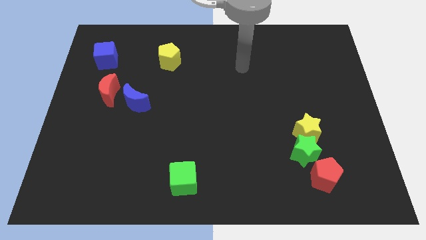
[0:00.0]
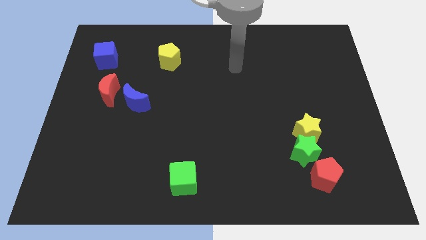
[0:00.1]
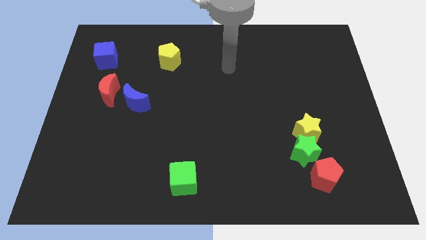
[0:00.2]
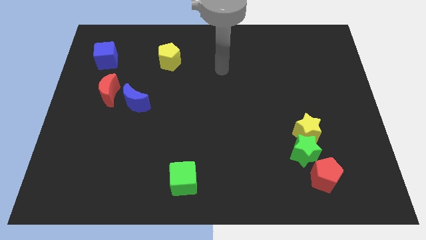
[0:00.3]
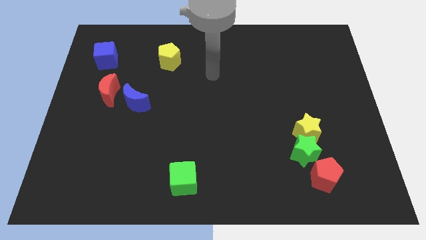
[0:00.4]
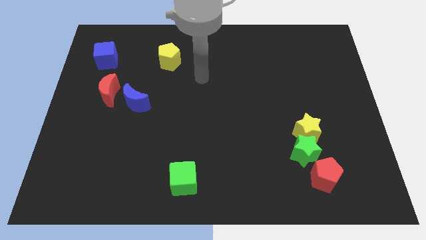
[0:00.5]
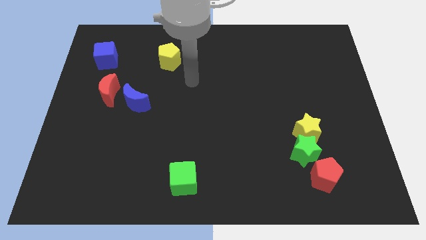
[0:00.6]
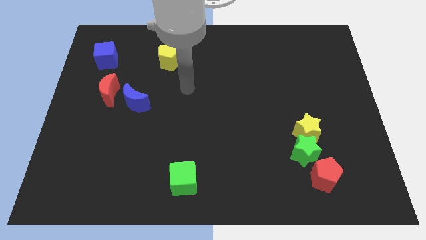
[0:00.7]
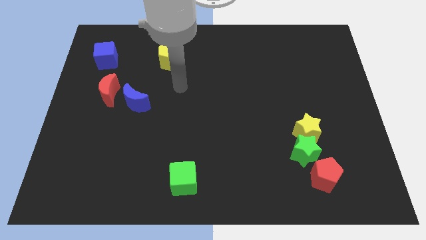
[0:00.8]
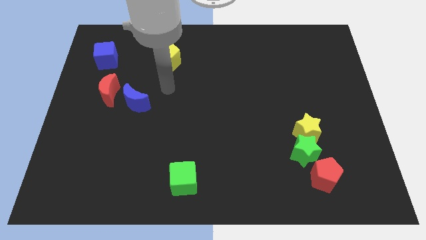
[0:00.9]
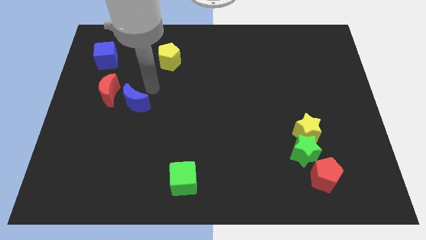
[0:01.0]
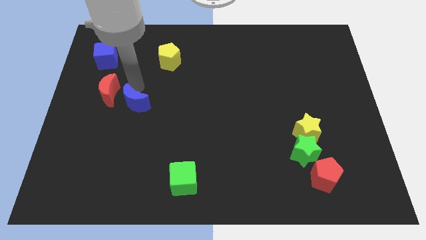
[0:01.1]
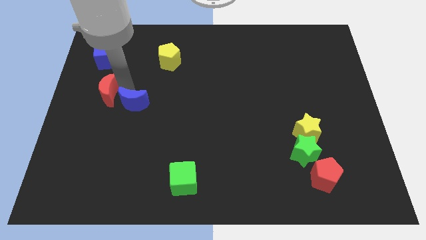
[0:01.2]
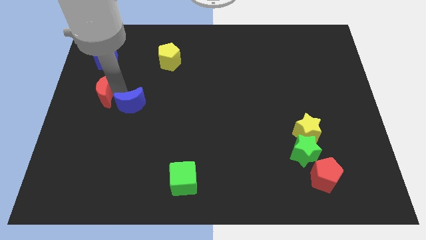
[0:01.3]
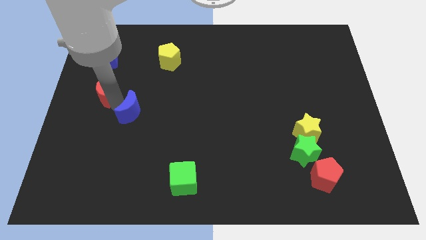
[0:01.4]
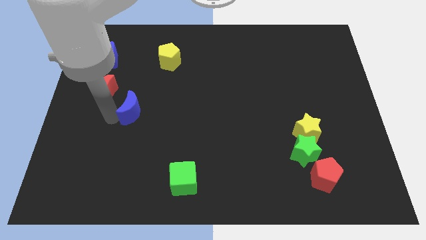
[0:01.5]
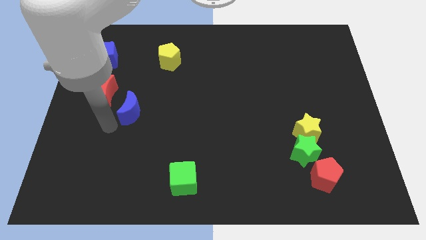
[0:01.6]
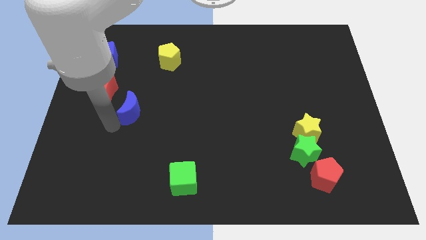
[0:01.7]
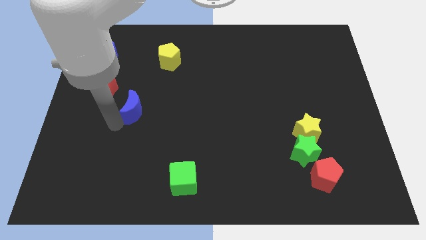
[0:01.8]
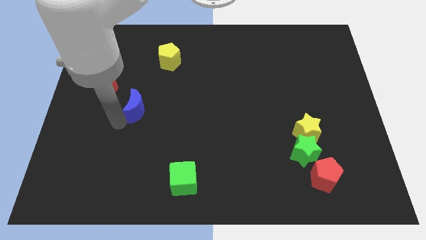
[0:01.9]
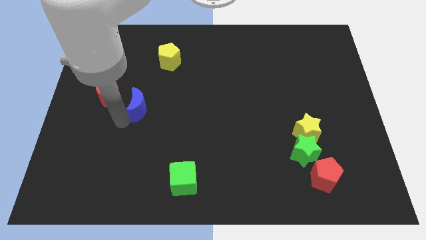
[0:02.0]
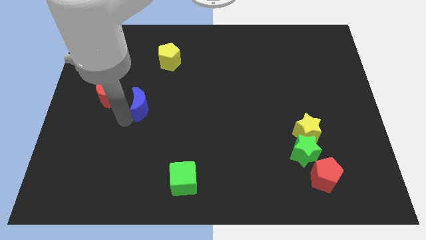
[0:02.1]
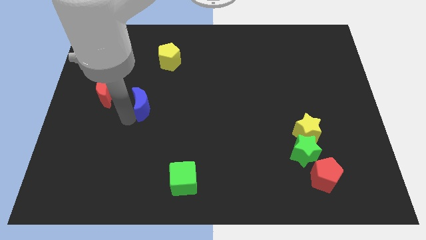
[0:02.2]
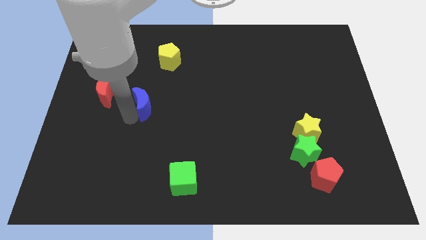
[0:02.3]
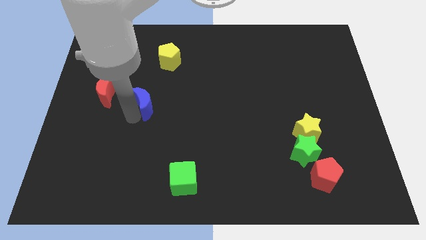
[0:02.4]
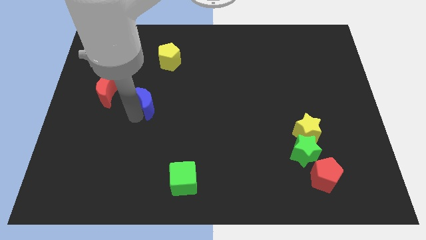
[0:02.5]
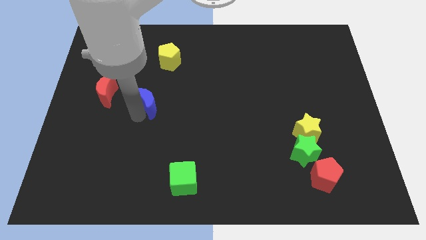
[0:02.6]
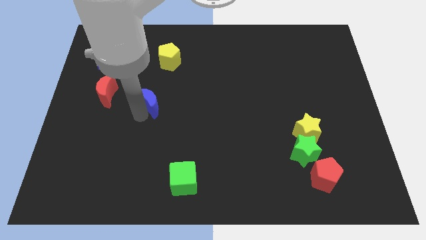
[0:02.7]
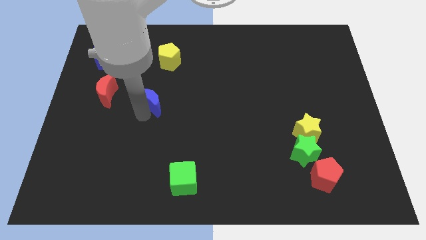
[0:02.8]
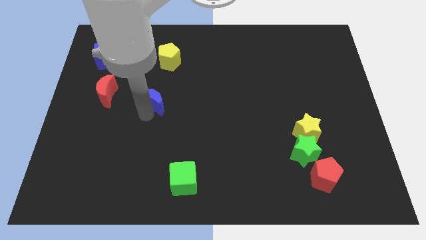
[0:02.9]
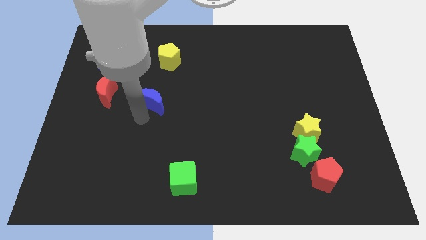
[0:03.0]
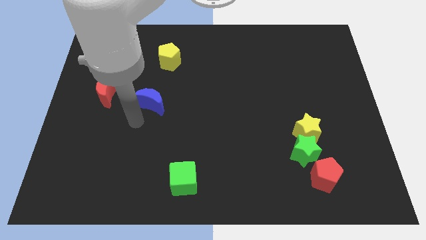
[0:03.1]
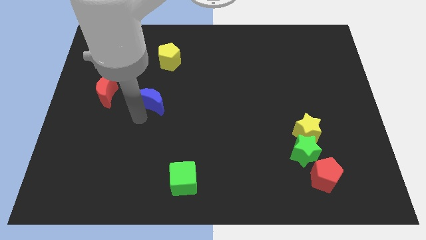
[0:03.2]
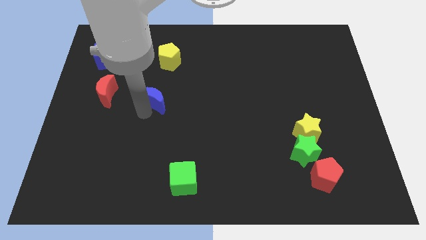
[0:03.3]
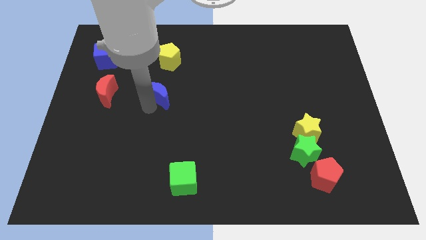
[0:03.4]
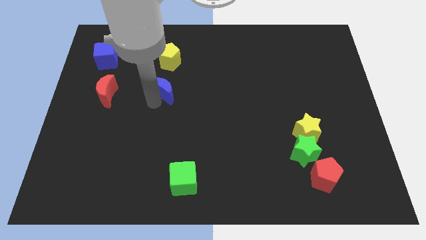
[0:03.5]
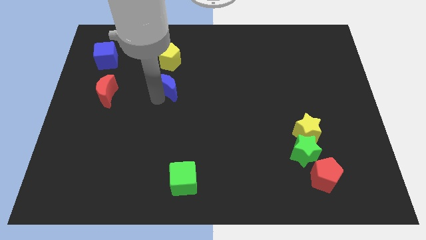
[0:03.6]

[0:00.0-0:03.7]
slide the blue moon upwards and to the right diagonally a little bit

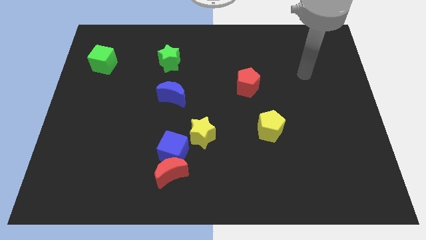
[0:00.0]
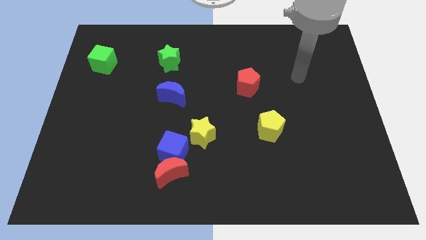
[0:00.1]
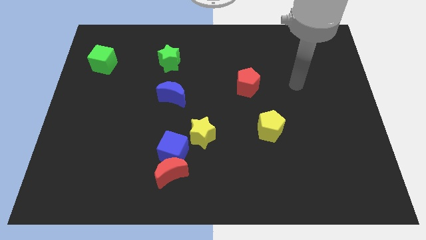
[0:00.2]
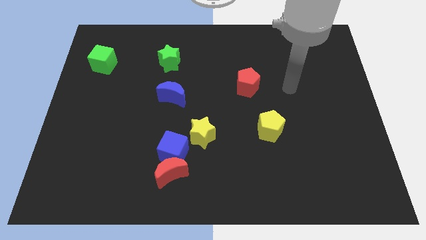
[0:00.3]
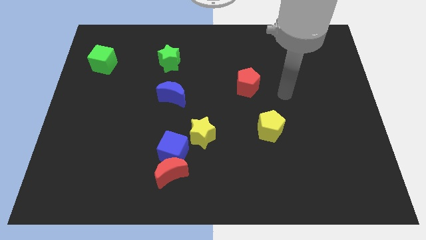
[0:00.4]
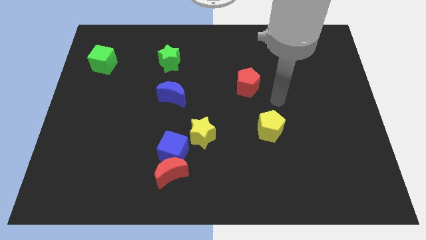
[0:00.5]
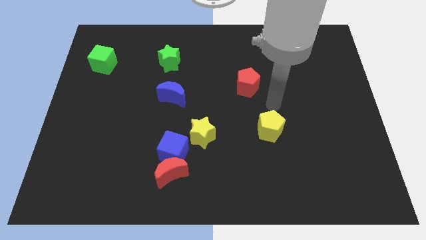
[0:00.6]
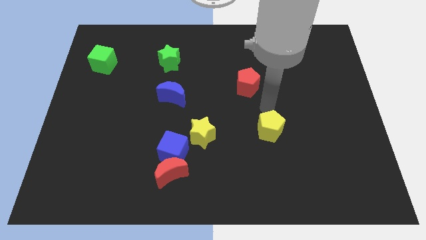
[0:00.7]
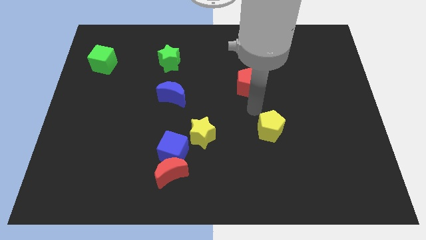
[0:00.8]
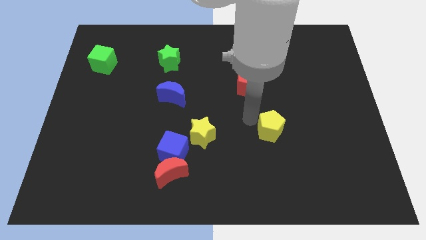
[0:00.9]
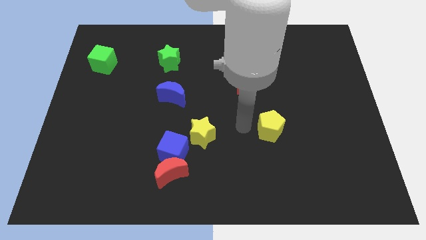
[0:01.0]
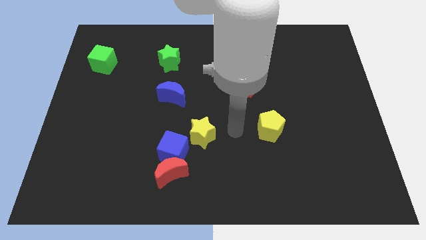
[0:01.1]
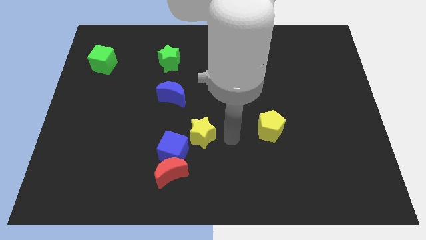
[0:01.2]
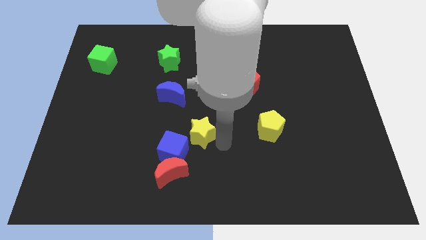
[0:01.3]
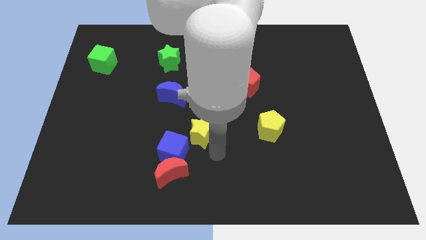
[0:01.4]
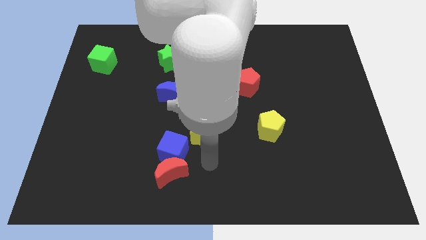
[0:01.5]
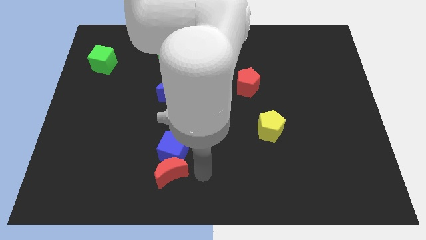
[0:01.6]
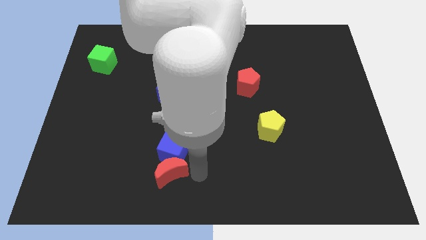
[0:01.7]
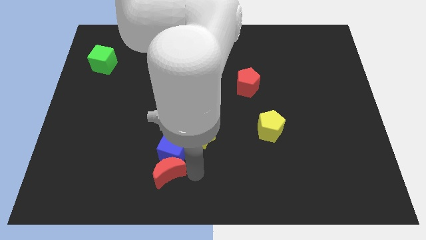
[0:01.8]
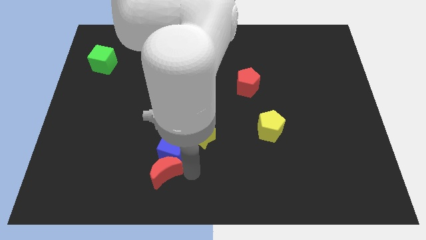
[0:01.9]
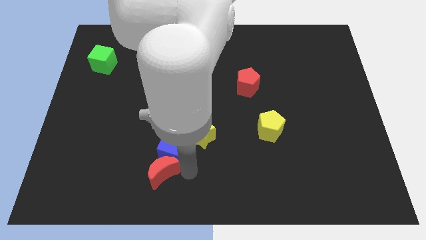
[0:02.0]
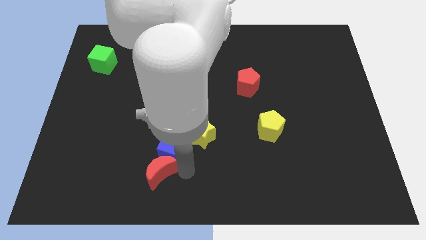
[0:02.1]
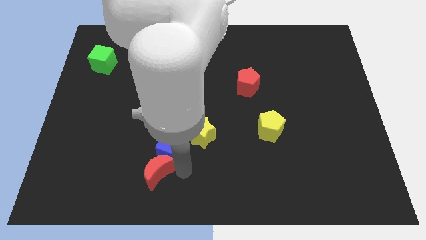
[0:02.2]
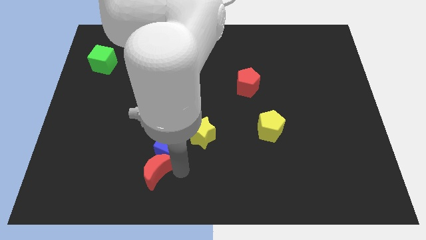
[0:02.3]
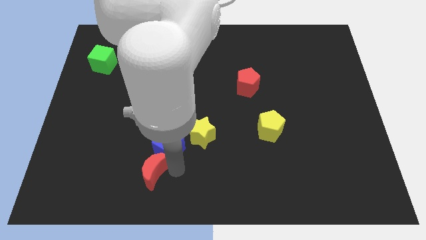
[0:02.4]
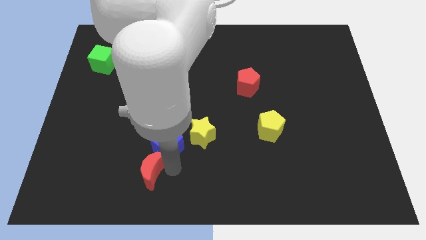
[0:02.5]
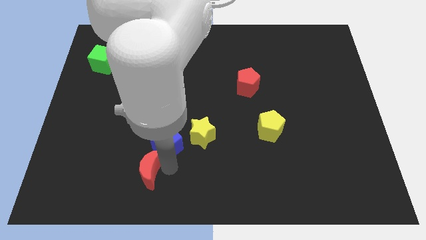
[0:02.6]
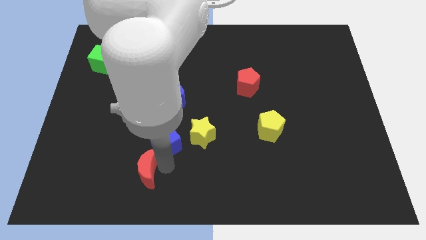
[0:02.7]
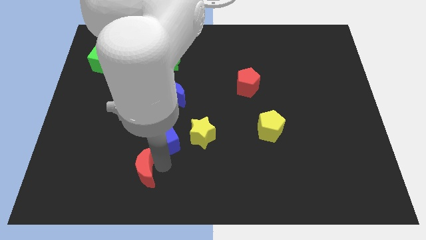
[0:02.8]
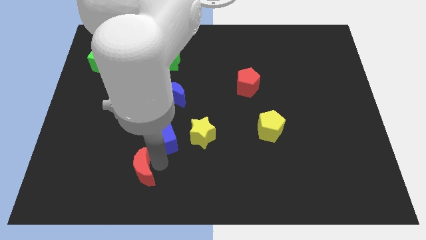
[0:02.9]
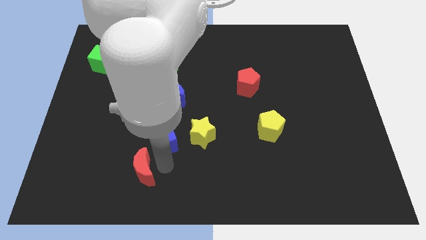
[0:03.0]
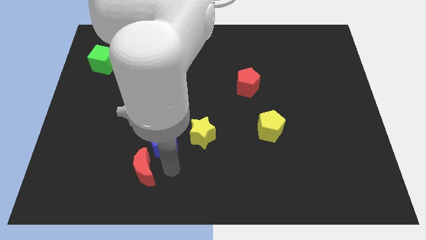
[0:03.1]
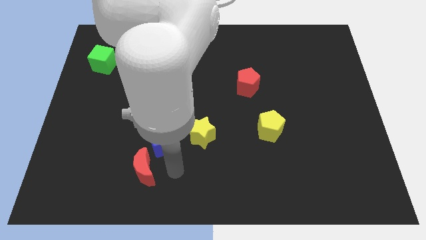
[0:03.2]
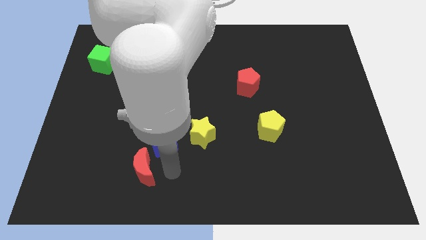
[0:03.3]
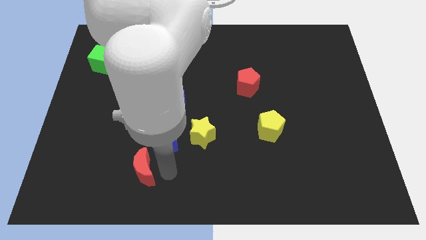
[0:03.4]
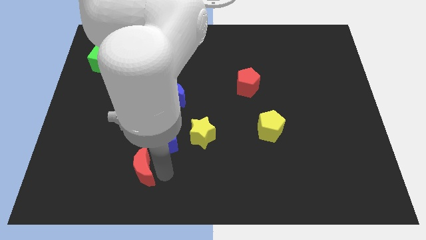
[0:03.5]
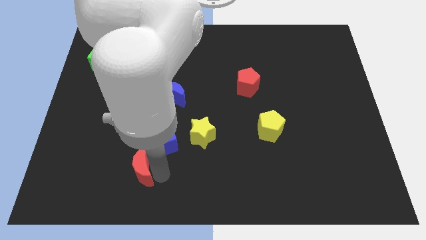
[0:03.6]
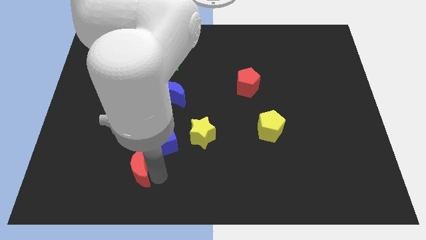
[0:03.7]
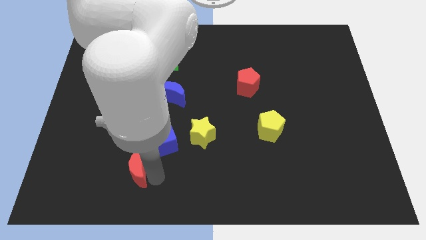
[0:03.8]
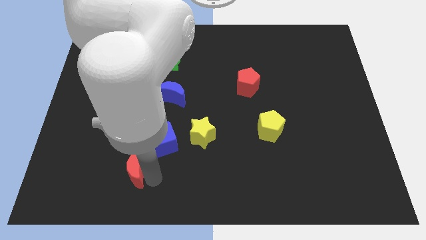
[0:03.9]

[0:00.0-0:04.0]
slide the red moon to the left slightly

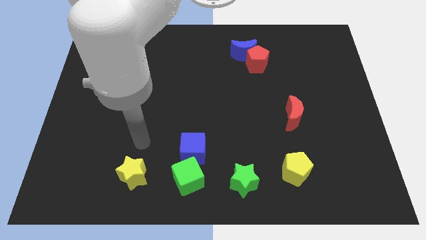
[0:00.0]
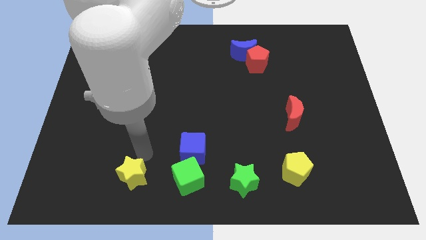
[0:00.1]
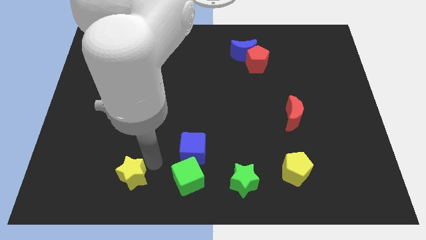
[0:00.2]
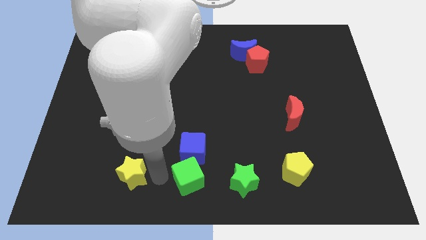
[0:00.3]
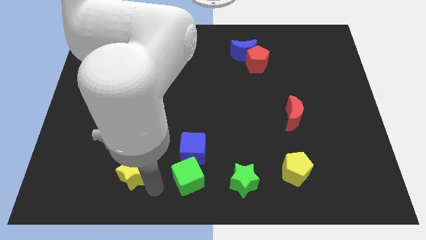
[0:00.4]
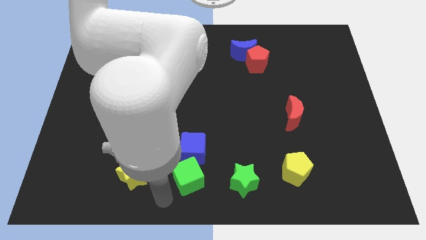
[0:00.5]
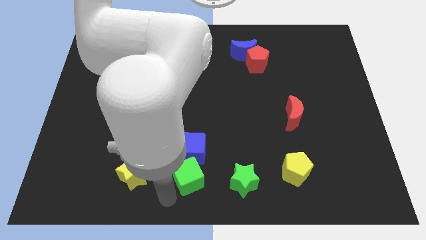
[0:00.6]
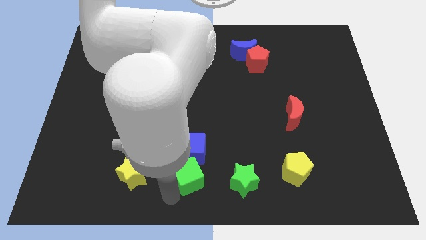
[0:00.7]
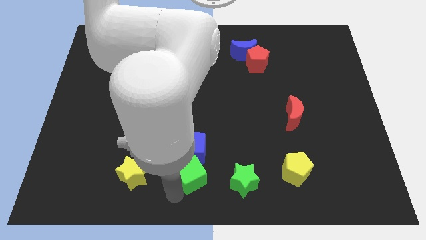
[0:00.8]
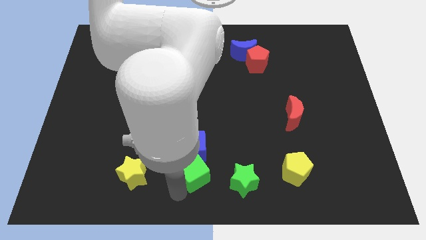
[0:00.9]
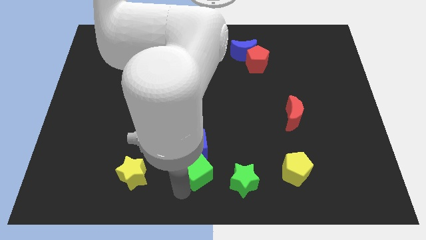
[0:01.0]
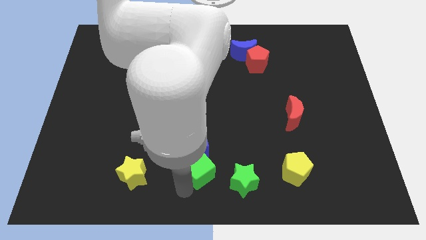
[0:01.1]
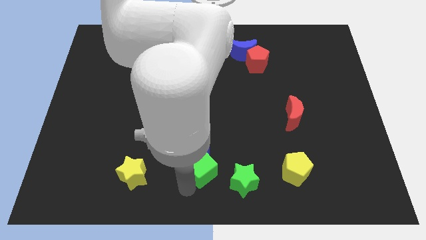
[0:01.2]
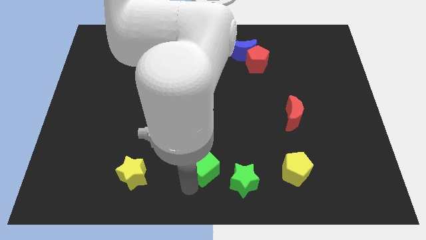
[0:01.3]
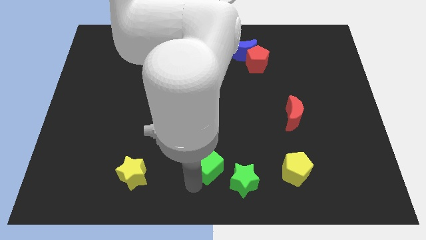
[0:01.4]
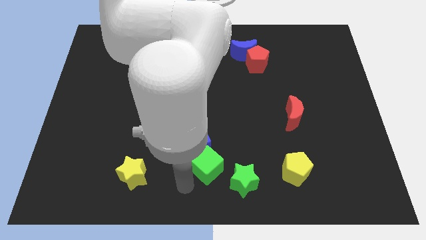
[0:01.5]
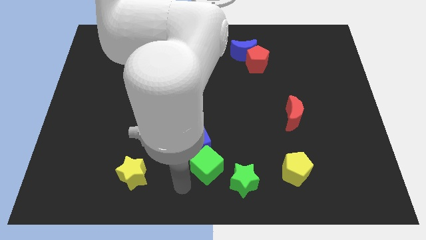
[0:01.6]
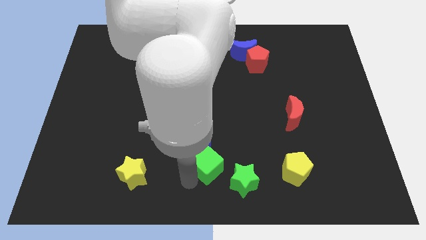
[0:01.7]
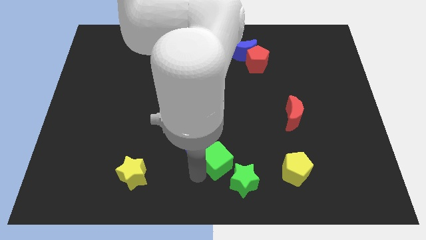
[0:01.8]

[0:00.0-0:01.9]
slide the green cube slightly upwards and right diagonally
